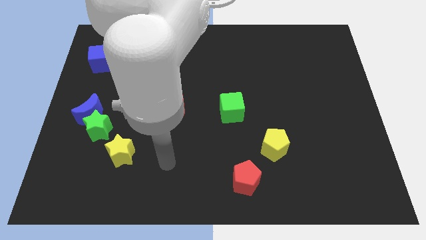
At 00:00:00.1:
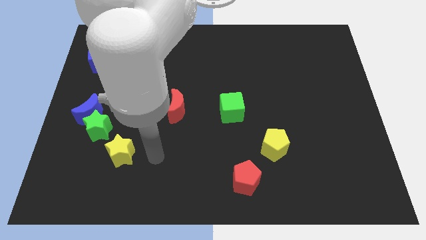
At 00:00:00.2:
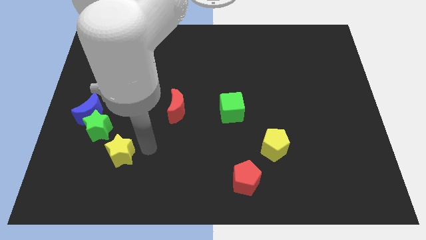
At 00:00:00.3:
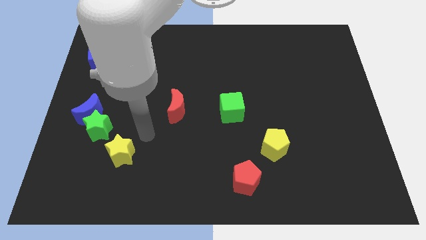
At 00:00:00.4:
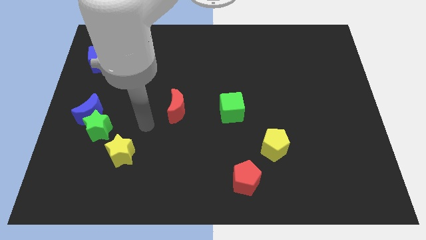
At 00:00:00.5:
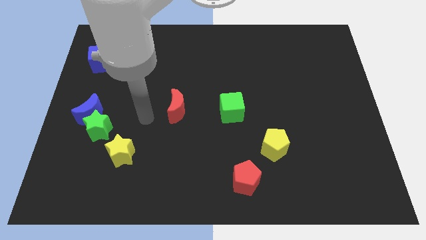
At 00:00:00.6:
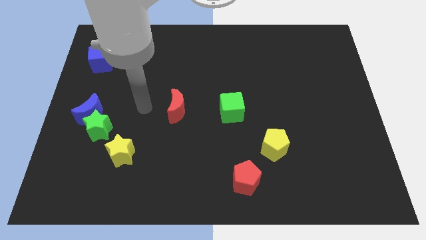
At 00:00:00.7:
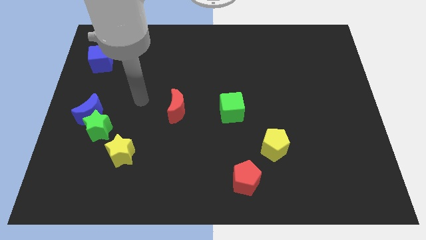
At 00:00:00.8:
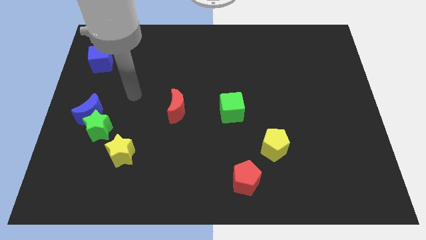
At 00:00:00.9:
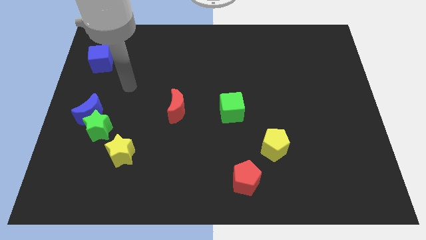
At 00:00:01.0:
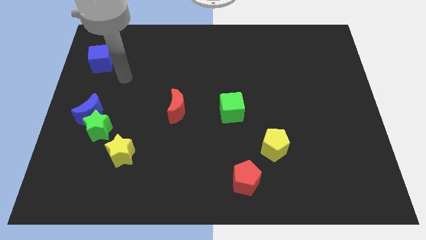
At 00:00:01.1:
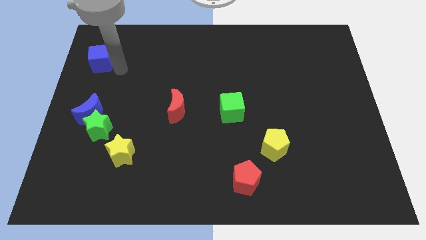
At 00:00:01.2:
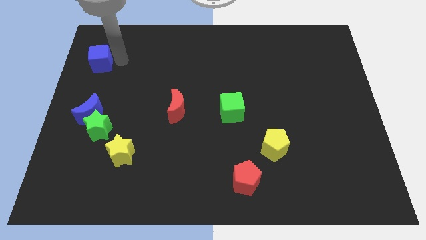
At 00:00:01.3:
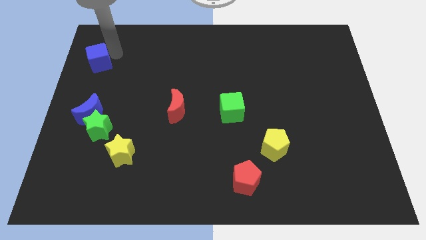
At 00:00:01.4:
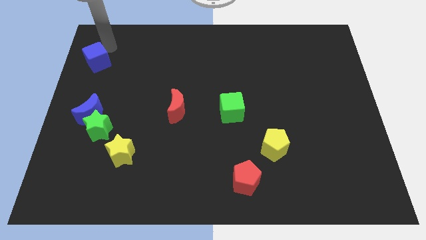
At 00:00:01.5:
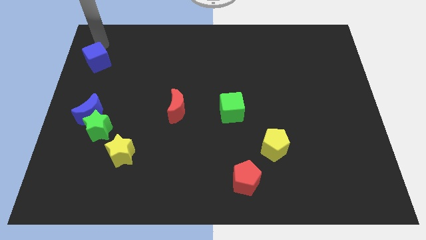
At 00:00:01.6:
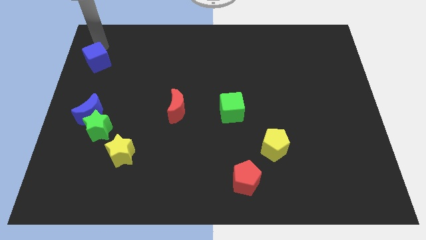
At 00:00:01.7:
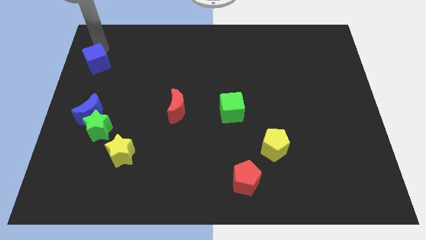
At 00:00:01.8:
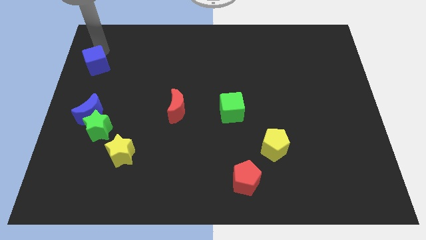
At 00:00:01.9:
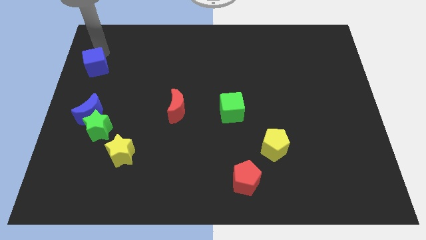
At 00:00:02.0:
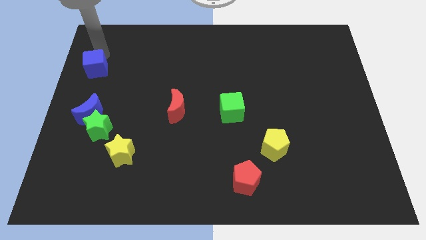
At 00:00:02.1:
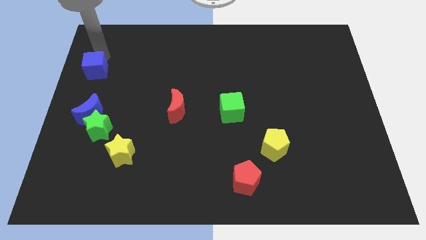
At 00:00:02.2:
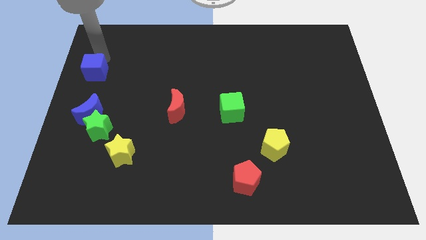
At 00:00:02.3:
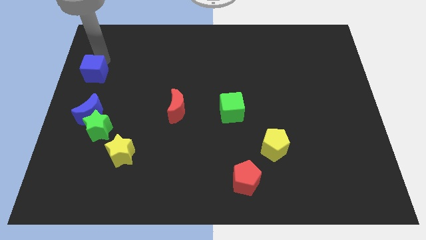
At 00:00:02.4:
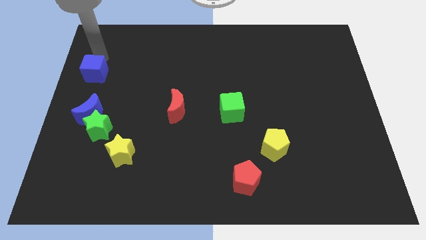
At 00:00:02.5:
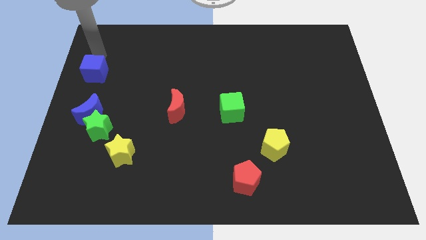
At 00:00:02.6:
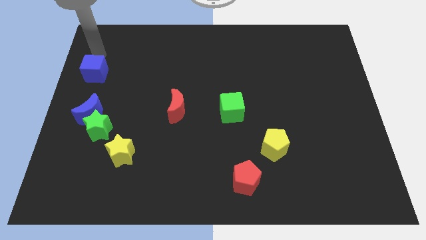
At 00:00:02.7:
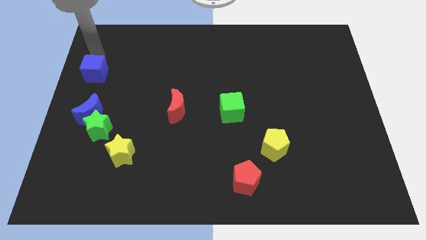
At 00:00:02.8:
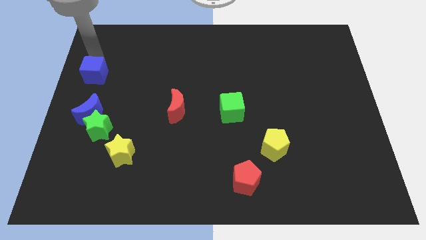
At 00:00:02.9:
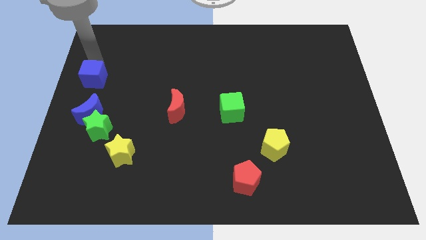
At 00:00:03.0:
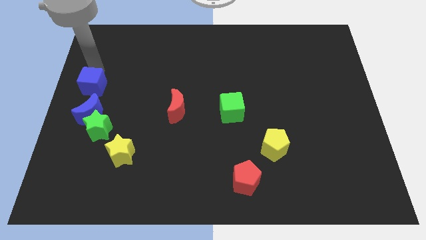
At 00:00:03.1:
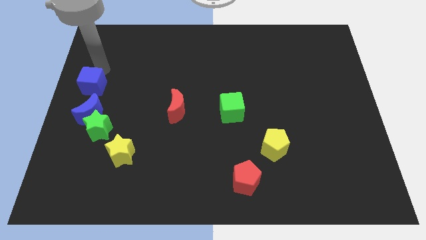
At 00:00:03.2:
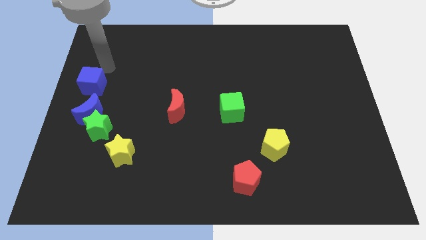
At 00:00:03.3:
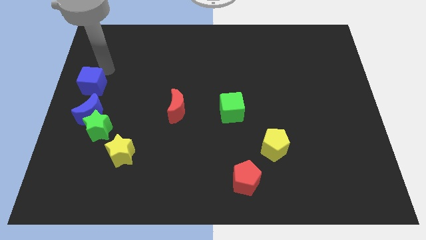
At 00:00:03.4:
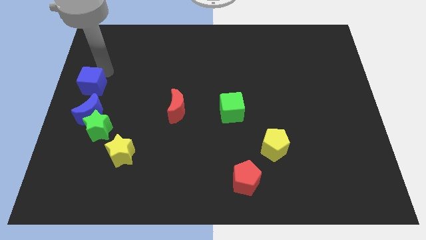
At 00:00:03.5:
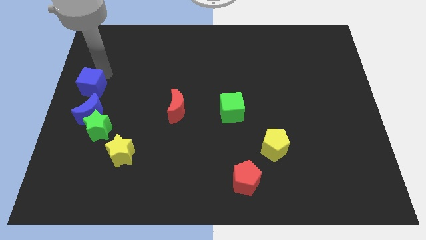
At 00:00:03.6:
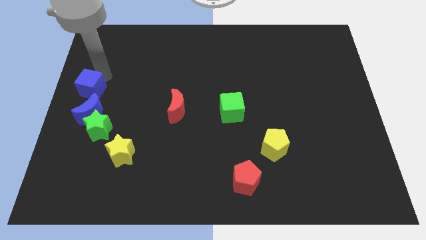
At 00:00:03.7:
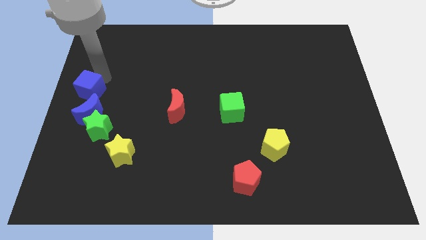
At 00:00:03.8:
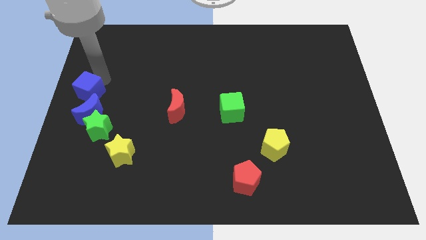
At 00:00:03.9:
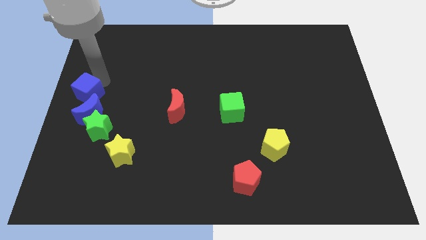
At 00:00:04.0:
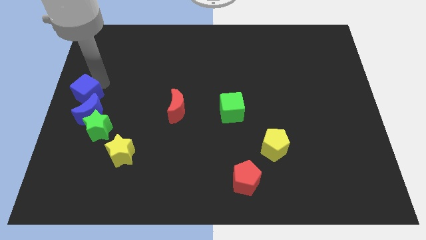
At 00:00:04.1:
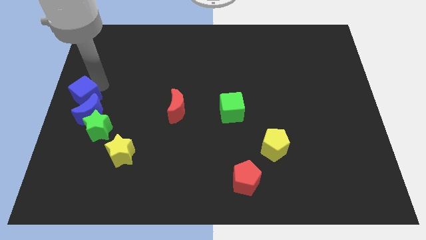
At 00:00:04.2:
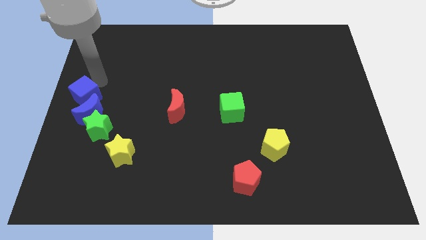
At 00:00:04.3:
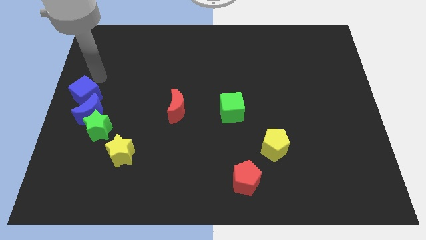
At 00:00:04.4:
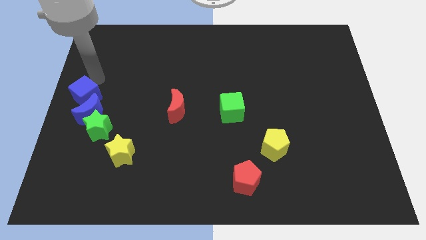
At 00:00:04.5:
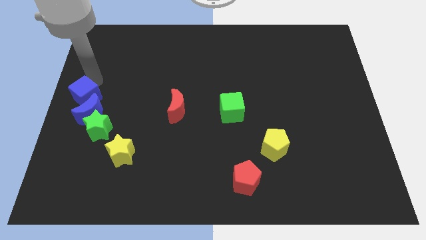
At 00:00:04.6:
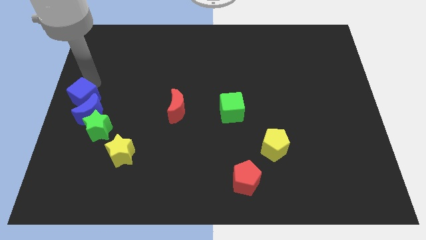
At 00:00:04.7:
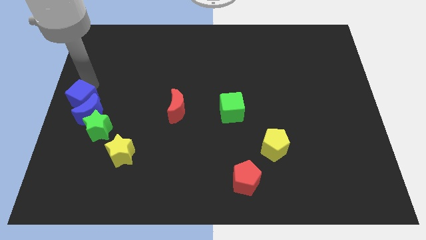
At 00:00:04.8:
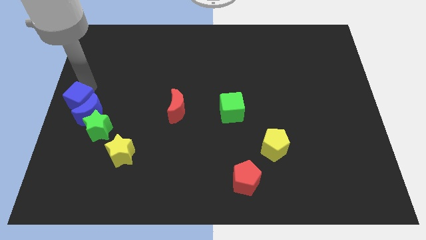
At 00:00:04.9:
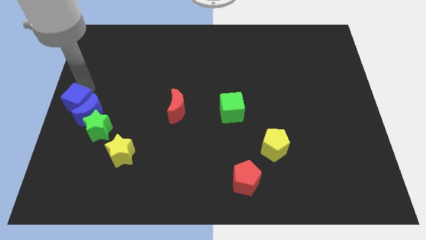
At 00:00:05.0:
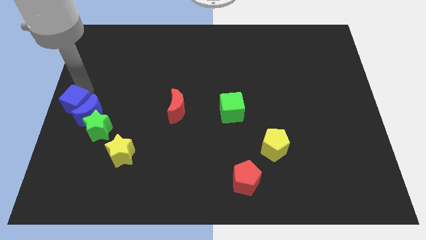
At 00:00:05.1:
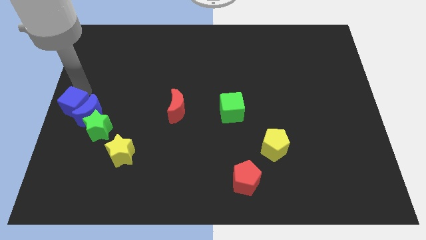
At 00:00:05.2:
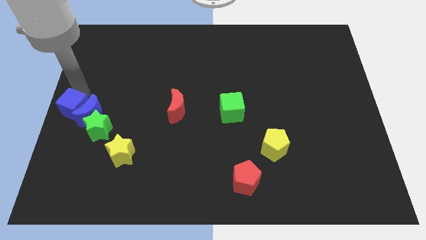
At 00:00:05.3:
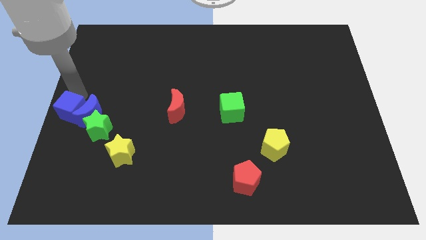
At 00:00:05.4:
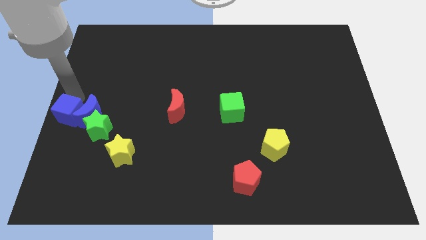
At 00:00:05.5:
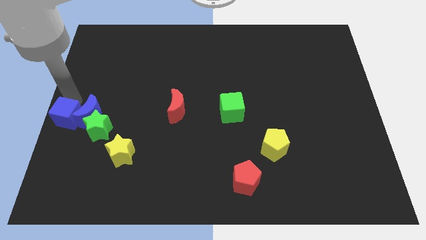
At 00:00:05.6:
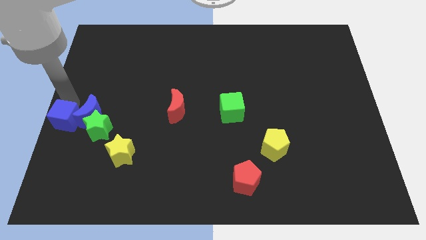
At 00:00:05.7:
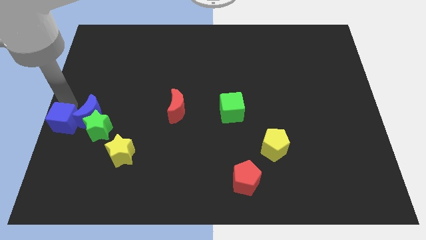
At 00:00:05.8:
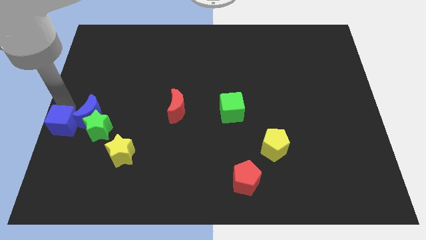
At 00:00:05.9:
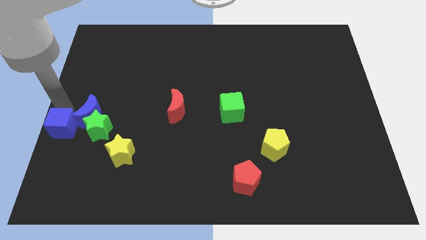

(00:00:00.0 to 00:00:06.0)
slide the blue cube downwards

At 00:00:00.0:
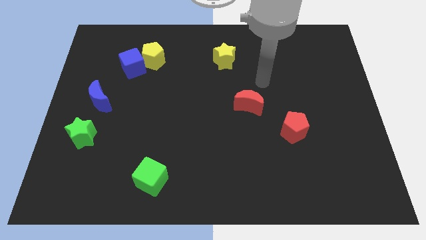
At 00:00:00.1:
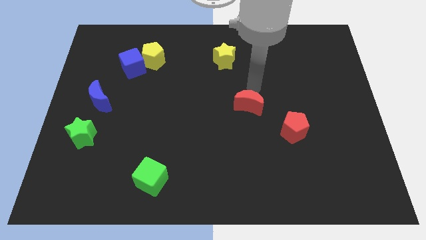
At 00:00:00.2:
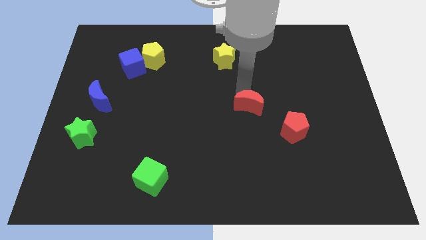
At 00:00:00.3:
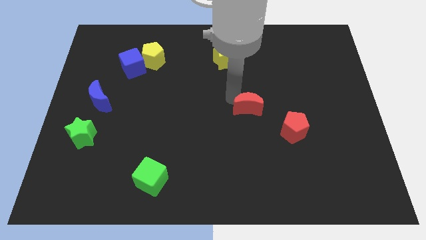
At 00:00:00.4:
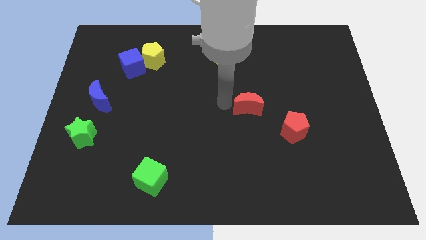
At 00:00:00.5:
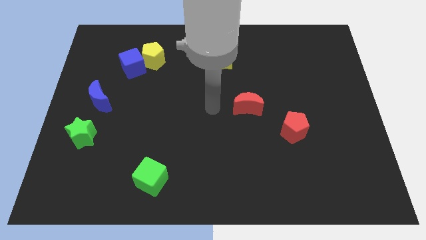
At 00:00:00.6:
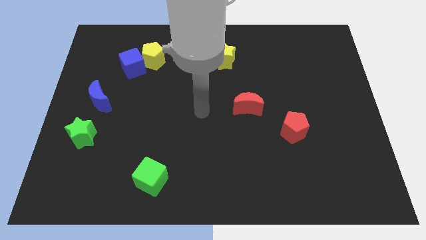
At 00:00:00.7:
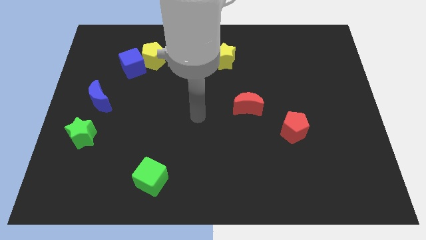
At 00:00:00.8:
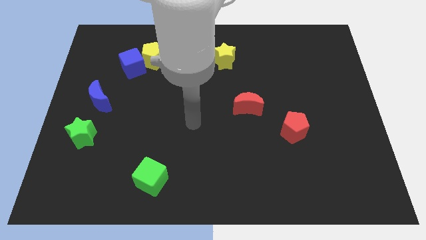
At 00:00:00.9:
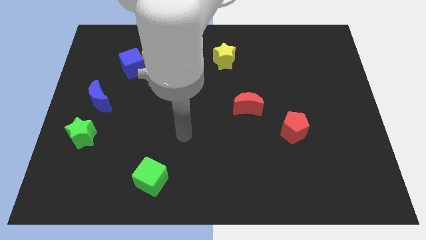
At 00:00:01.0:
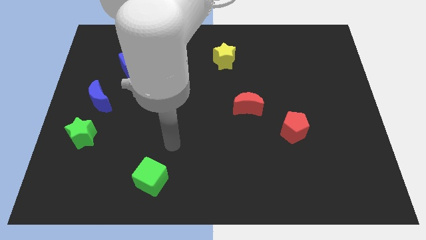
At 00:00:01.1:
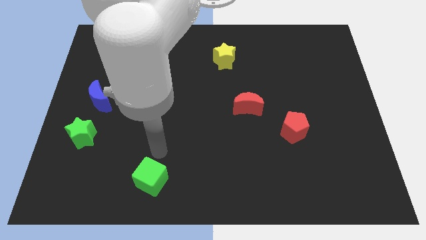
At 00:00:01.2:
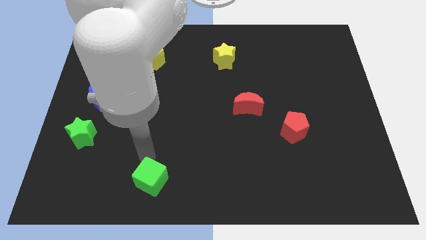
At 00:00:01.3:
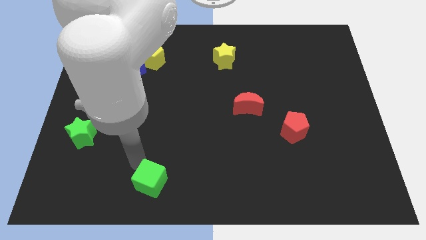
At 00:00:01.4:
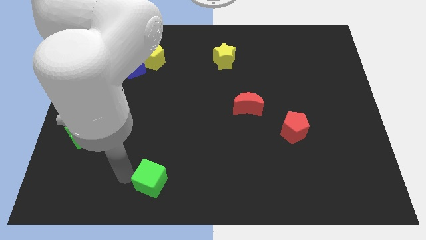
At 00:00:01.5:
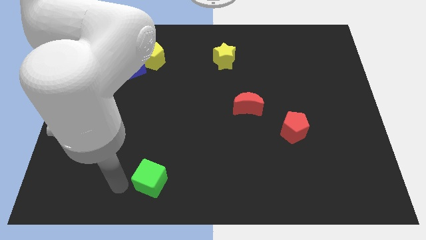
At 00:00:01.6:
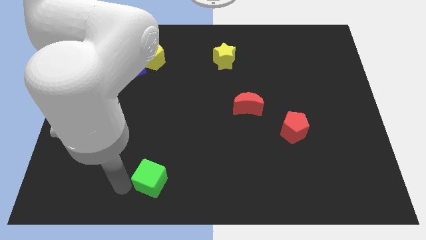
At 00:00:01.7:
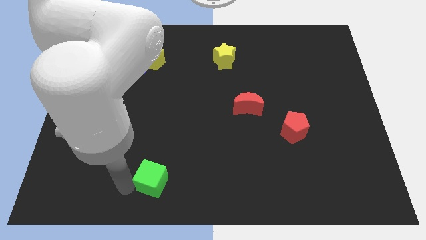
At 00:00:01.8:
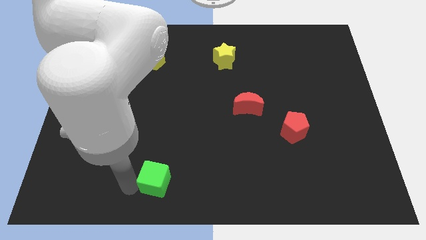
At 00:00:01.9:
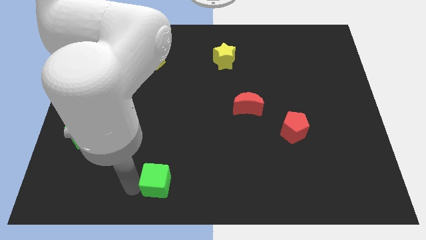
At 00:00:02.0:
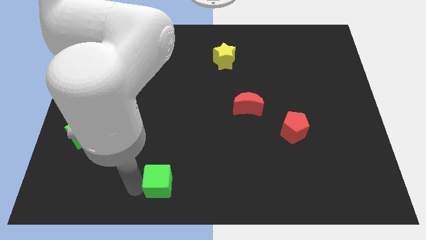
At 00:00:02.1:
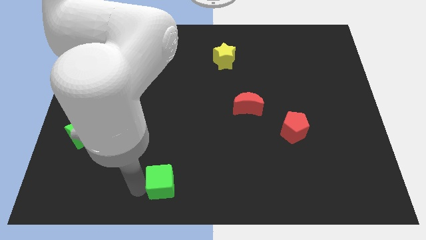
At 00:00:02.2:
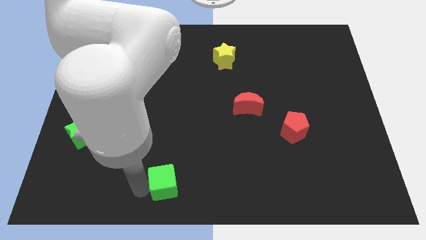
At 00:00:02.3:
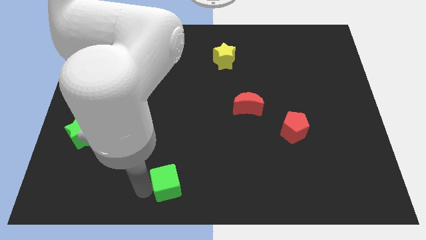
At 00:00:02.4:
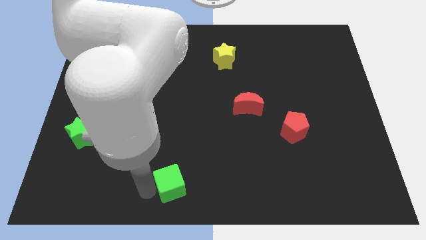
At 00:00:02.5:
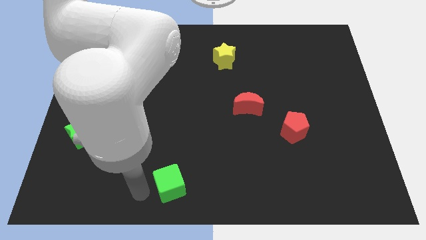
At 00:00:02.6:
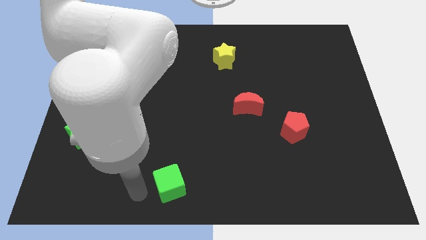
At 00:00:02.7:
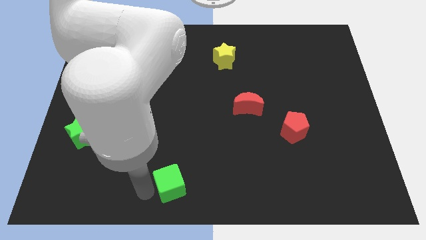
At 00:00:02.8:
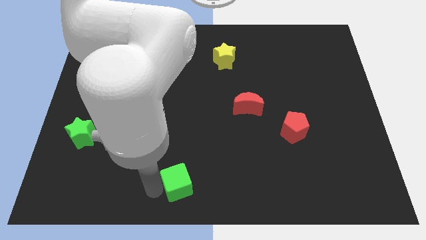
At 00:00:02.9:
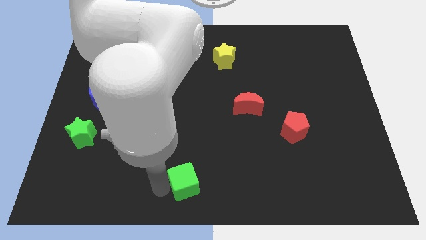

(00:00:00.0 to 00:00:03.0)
slide the green cube a little bit to the right
